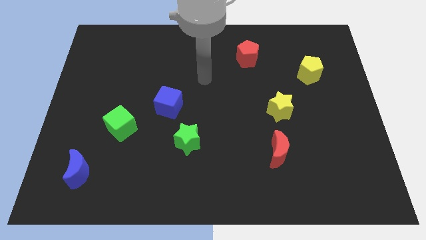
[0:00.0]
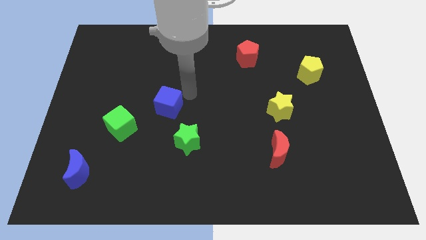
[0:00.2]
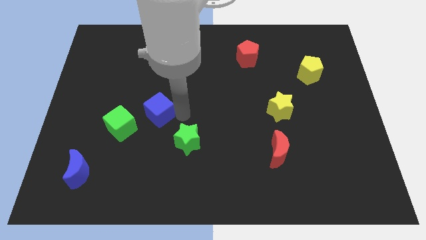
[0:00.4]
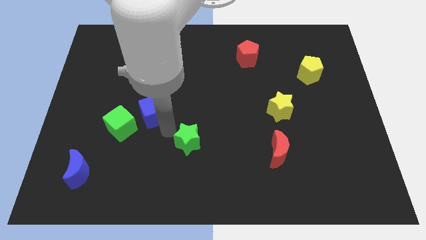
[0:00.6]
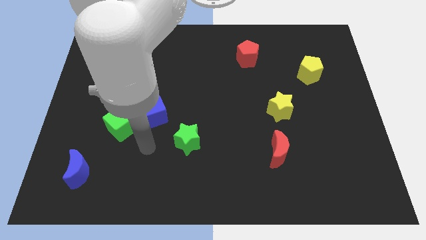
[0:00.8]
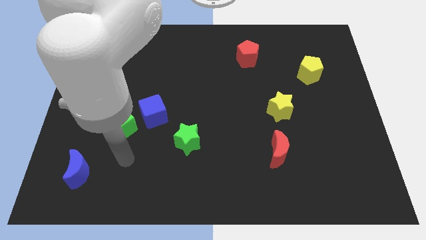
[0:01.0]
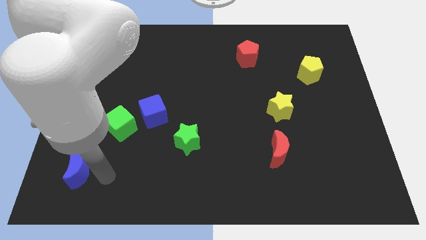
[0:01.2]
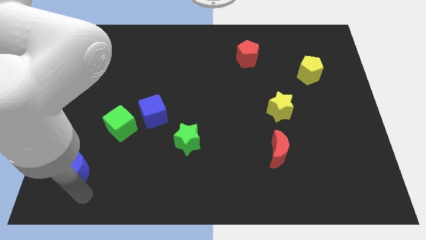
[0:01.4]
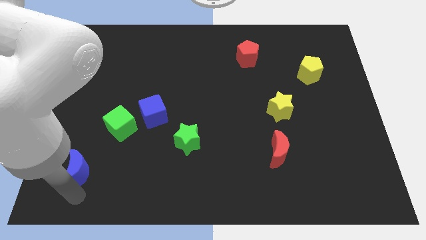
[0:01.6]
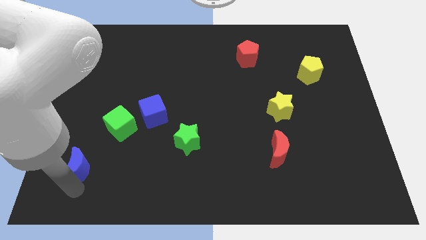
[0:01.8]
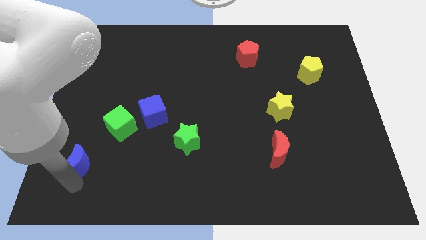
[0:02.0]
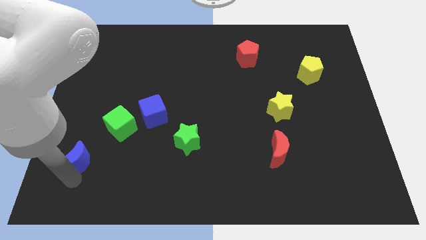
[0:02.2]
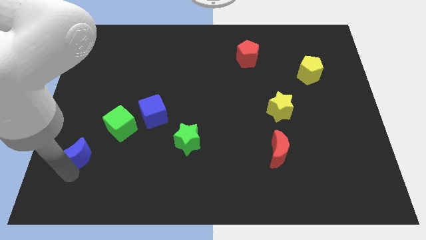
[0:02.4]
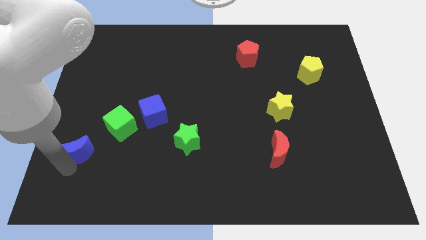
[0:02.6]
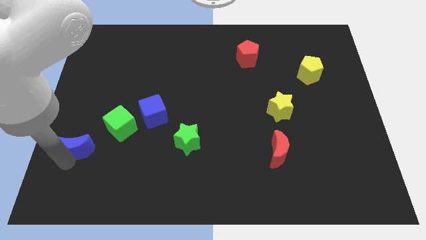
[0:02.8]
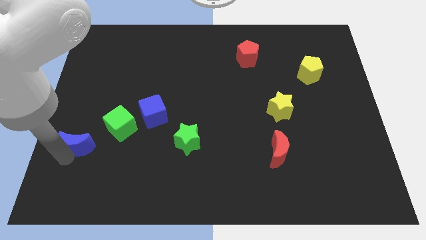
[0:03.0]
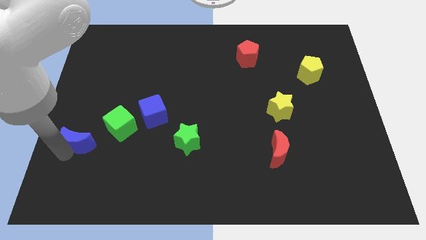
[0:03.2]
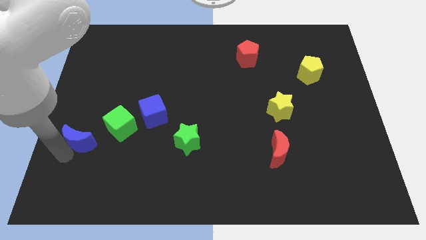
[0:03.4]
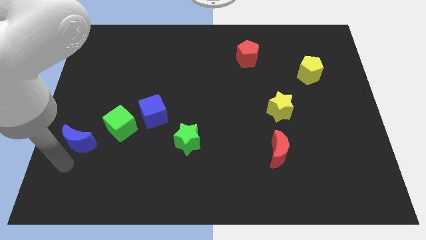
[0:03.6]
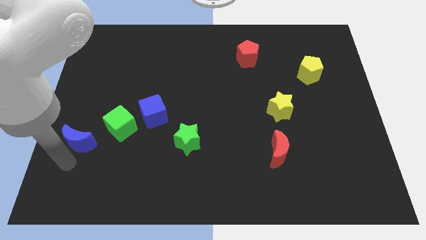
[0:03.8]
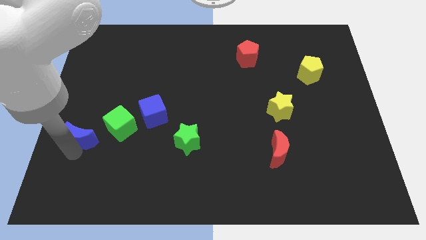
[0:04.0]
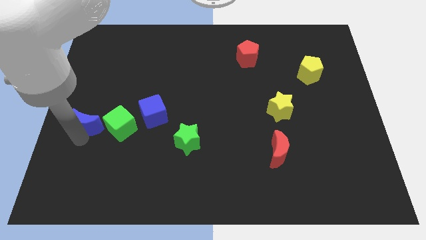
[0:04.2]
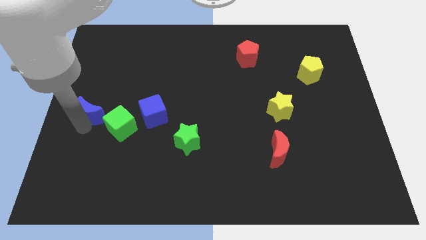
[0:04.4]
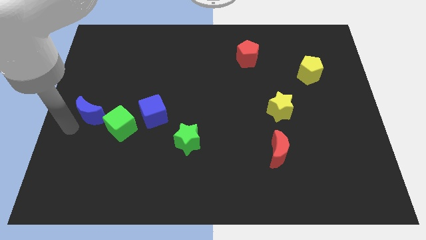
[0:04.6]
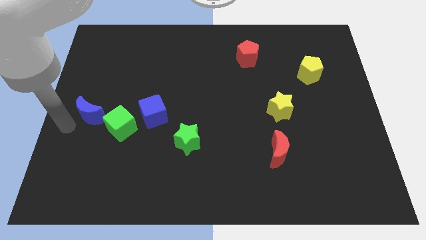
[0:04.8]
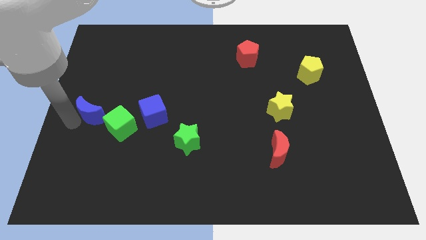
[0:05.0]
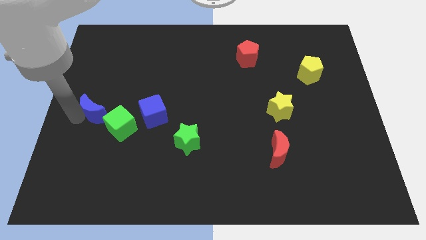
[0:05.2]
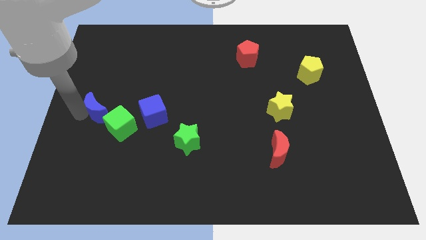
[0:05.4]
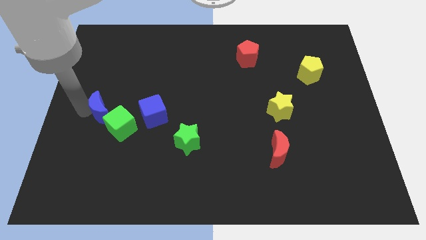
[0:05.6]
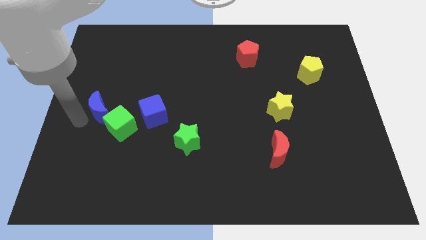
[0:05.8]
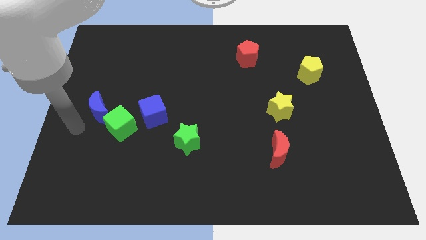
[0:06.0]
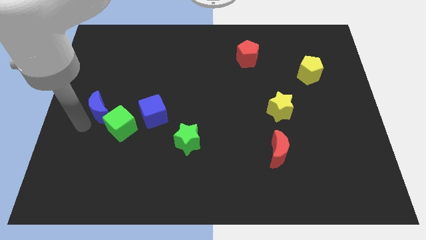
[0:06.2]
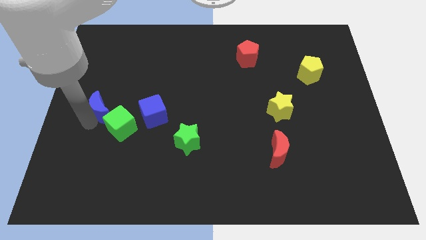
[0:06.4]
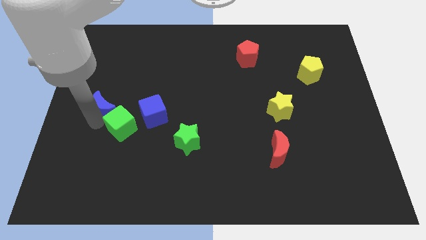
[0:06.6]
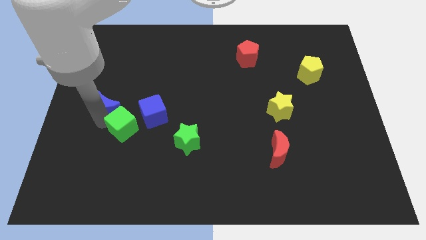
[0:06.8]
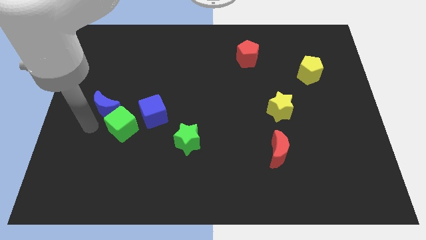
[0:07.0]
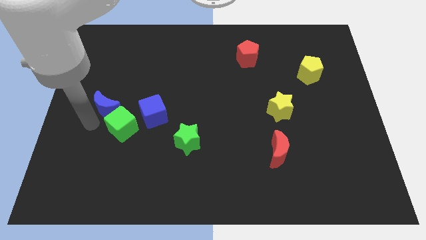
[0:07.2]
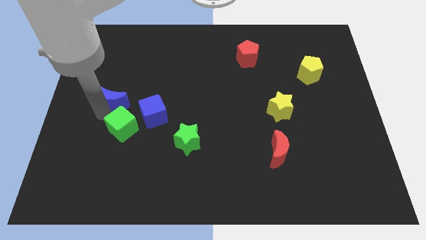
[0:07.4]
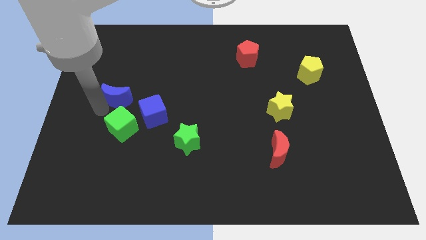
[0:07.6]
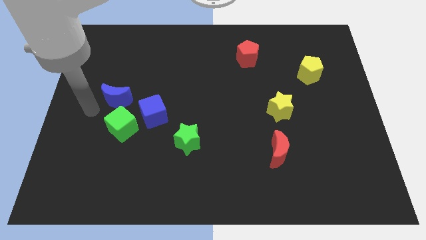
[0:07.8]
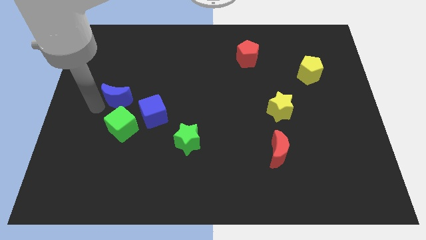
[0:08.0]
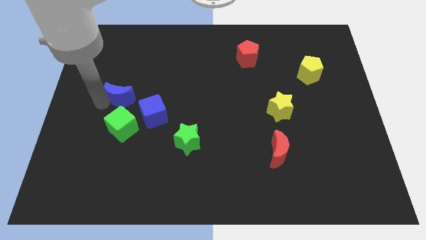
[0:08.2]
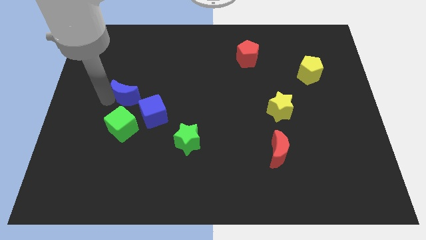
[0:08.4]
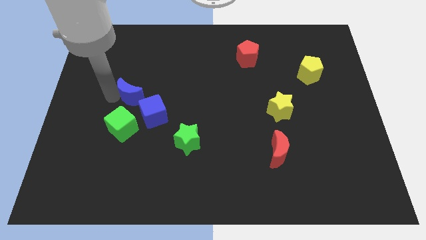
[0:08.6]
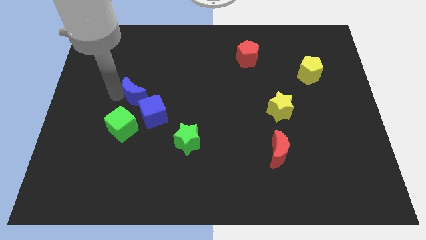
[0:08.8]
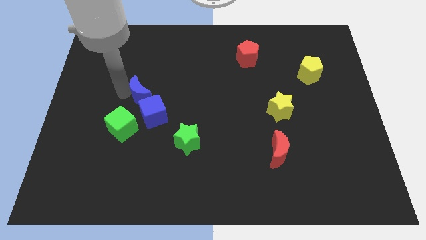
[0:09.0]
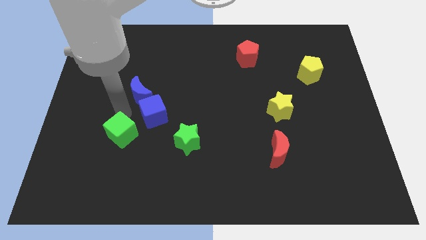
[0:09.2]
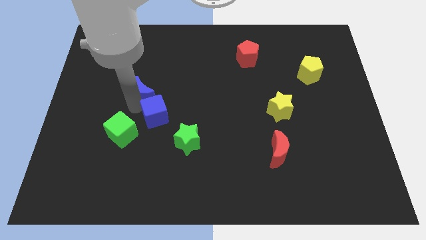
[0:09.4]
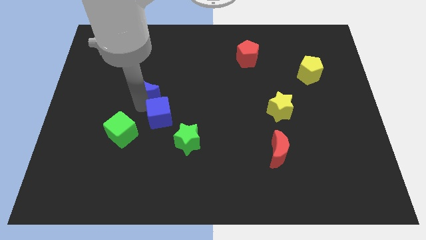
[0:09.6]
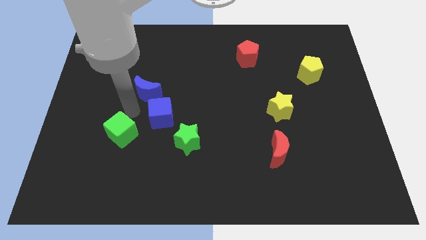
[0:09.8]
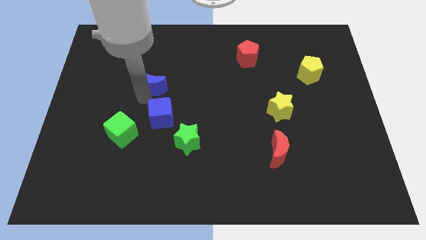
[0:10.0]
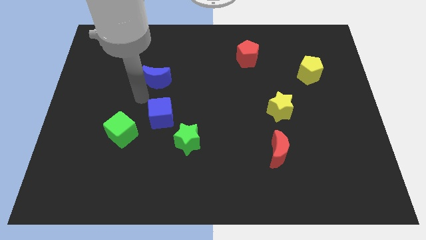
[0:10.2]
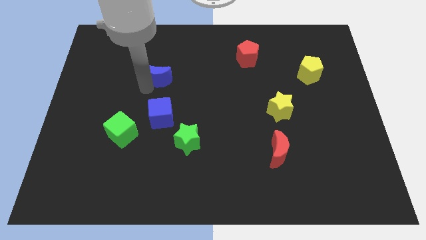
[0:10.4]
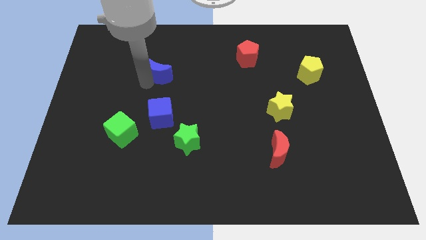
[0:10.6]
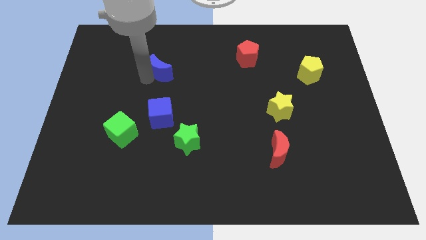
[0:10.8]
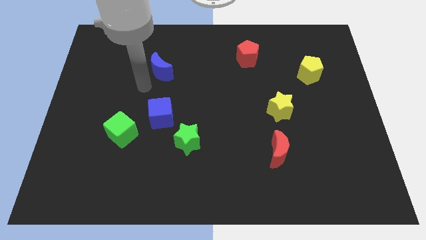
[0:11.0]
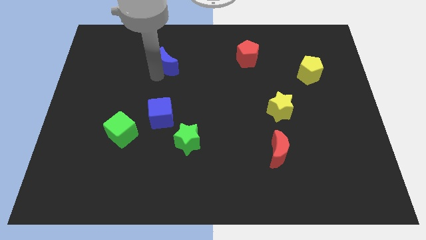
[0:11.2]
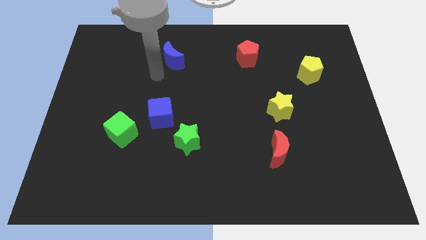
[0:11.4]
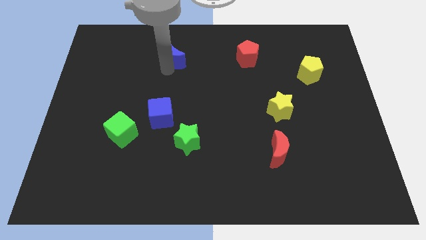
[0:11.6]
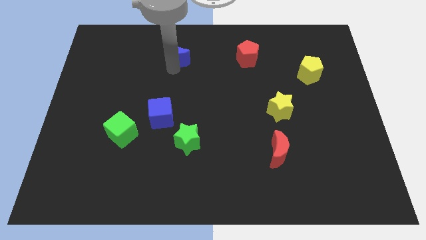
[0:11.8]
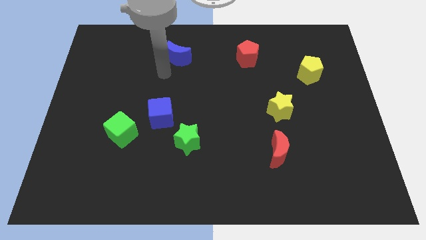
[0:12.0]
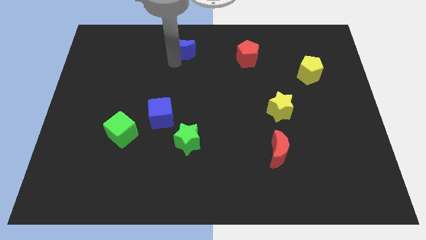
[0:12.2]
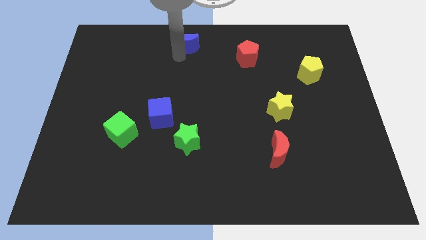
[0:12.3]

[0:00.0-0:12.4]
slide the blue moon to the towards your base

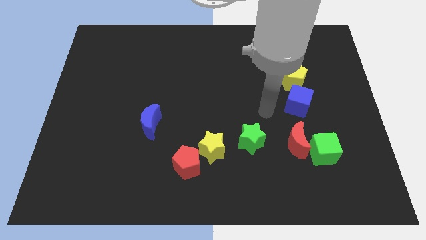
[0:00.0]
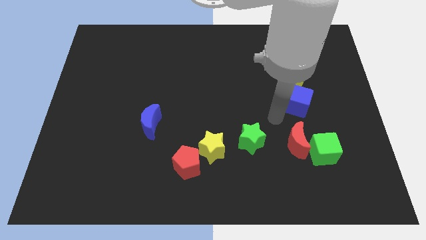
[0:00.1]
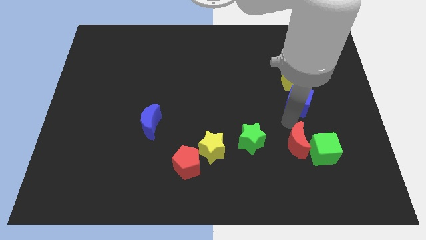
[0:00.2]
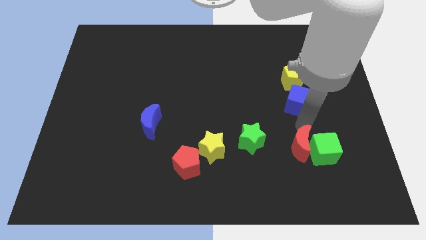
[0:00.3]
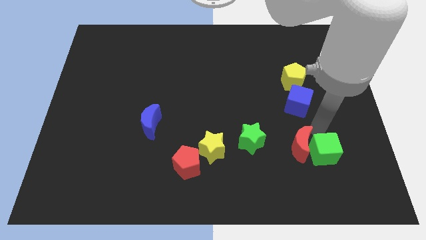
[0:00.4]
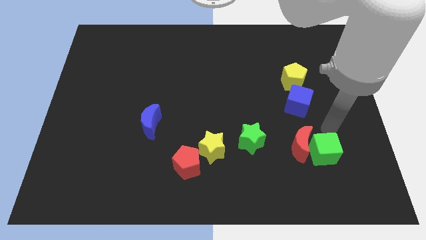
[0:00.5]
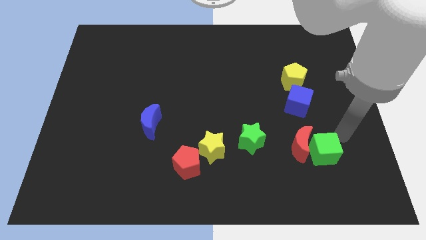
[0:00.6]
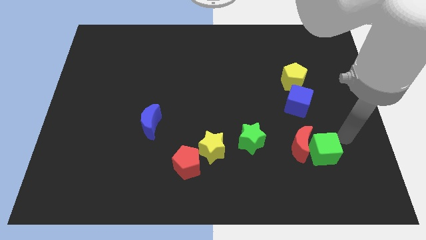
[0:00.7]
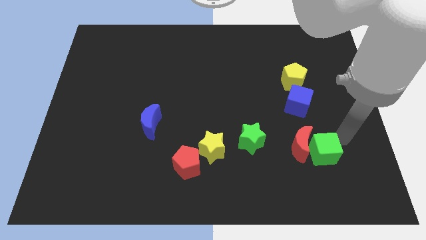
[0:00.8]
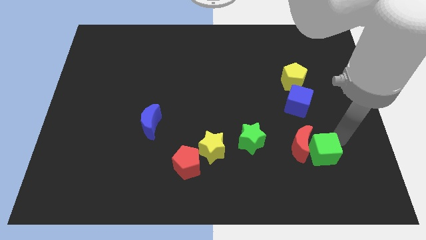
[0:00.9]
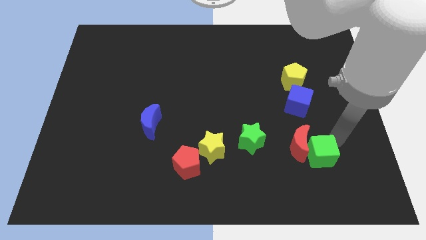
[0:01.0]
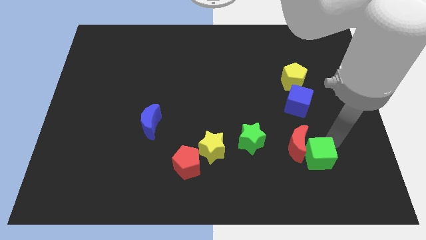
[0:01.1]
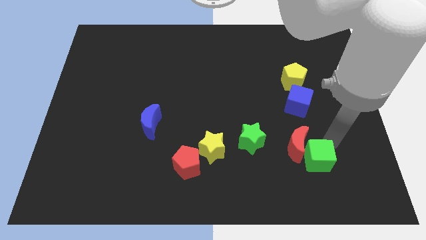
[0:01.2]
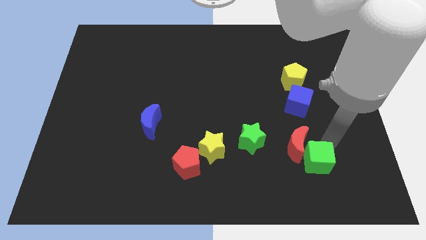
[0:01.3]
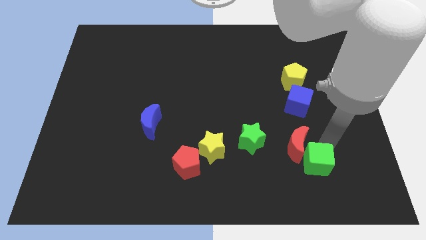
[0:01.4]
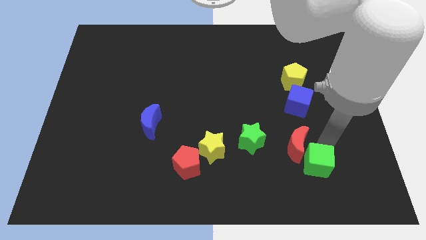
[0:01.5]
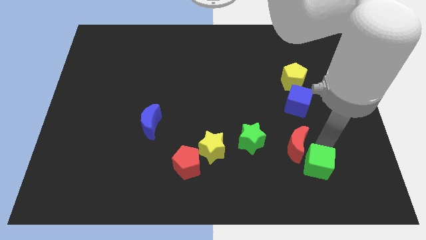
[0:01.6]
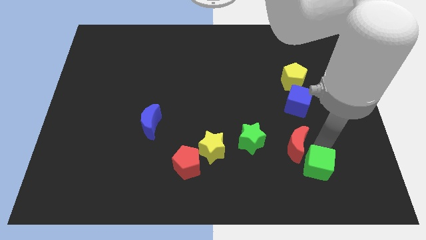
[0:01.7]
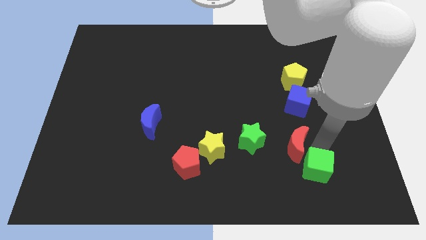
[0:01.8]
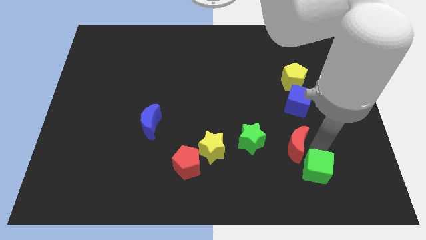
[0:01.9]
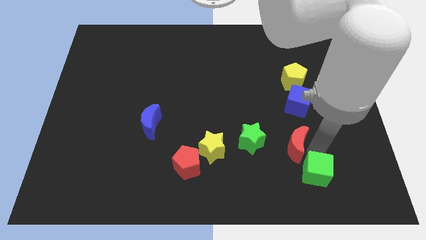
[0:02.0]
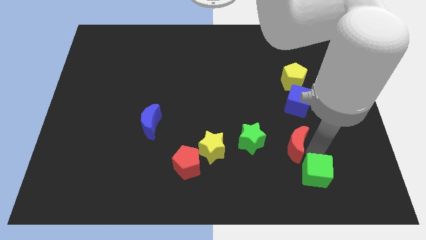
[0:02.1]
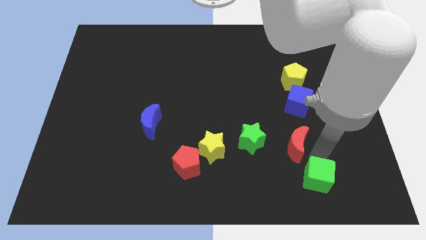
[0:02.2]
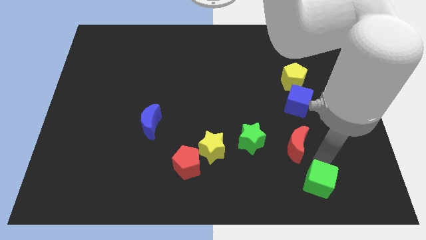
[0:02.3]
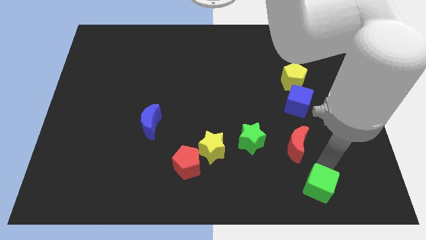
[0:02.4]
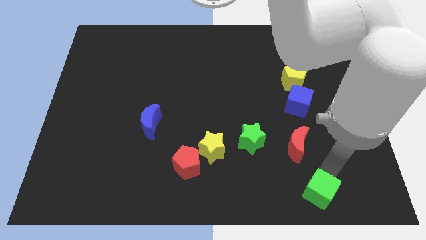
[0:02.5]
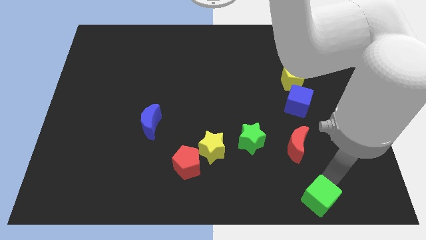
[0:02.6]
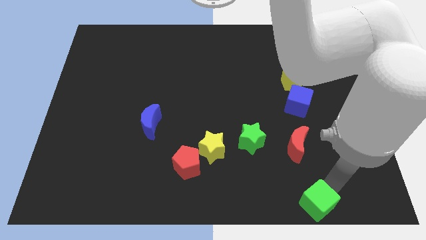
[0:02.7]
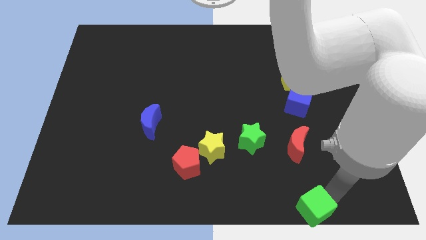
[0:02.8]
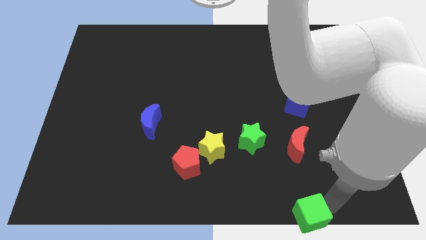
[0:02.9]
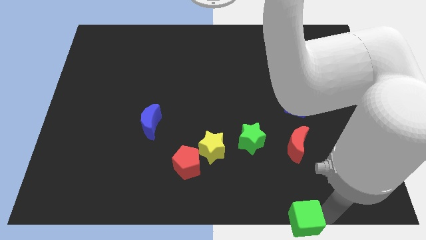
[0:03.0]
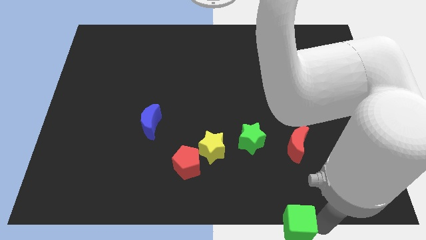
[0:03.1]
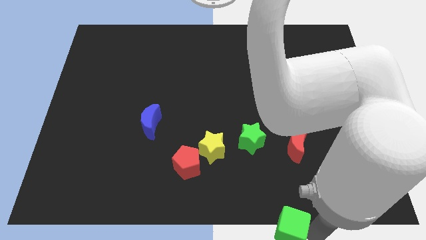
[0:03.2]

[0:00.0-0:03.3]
push the green cube to the bottom
